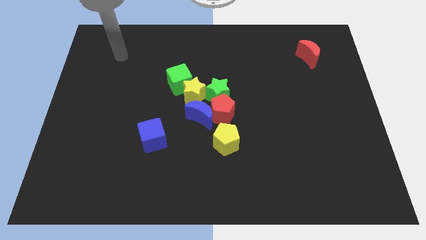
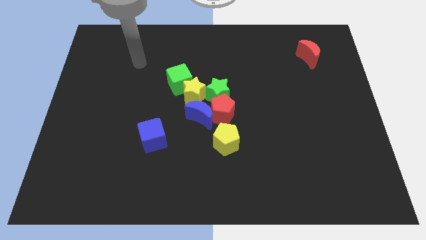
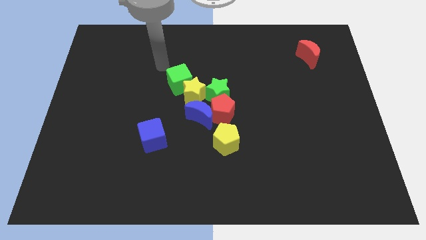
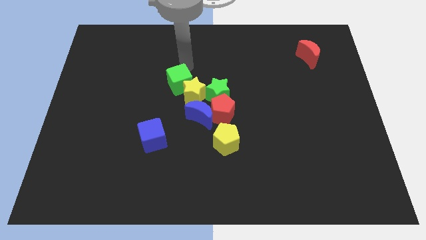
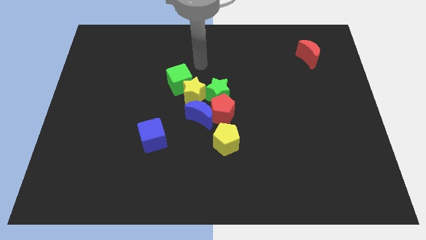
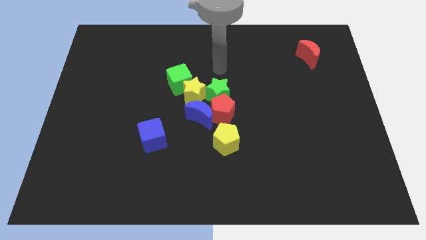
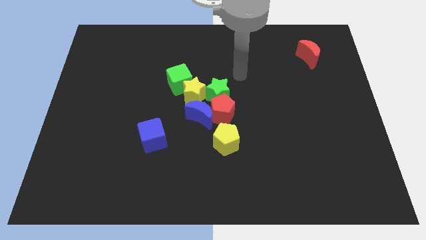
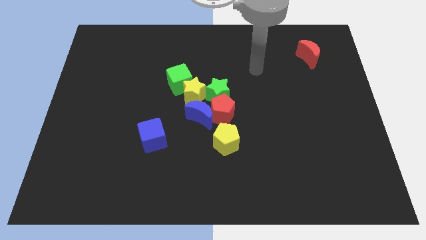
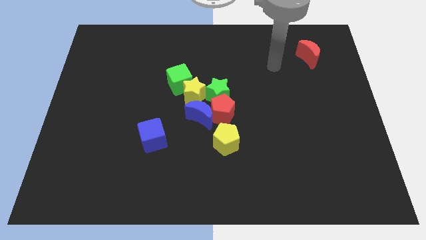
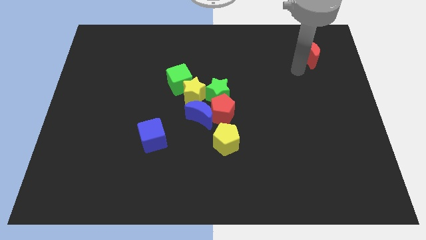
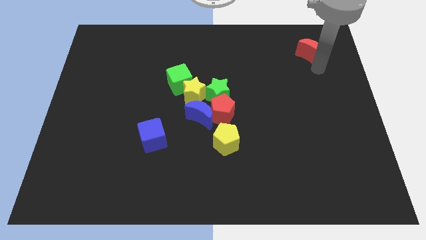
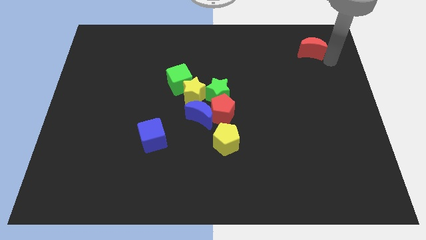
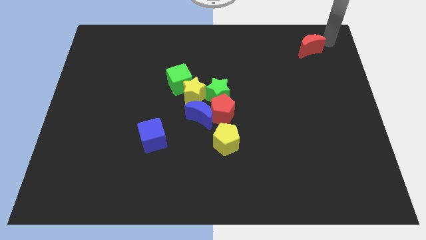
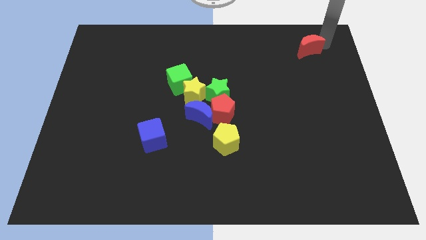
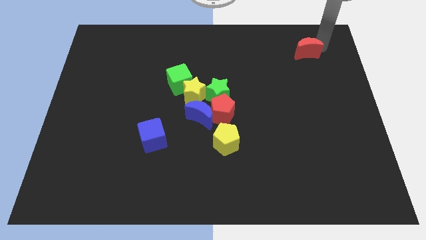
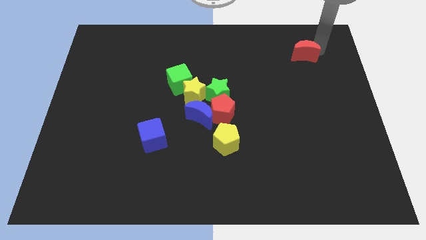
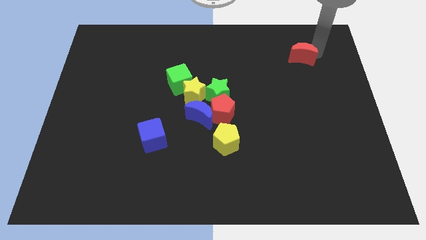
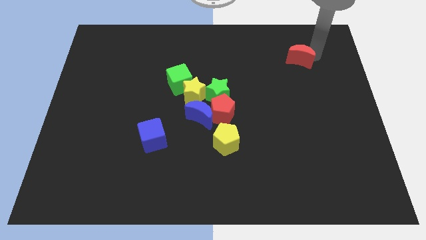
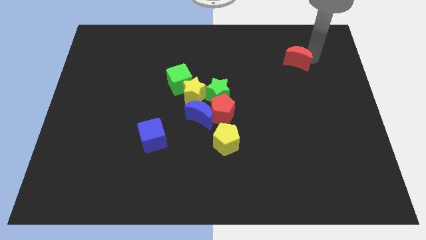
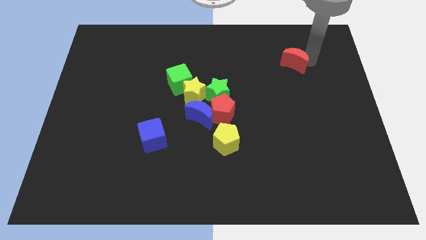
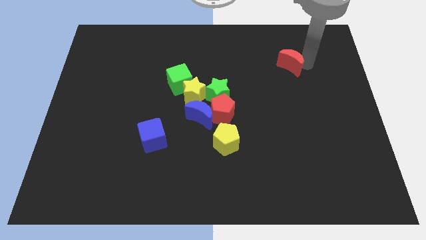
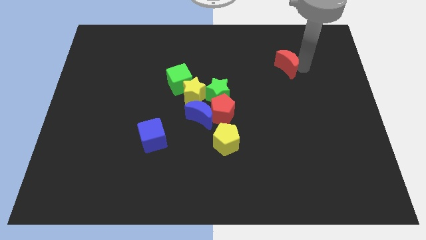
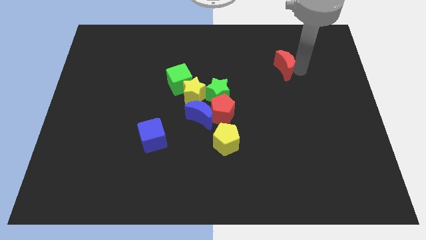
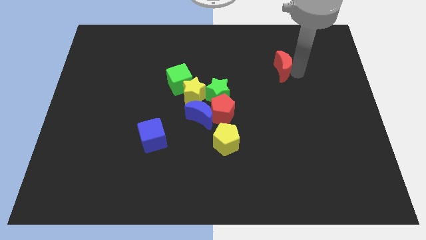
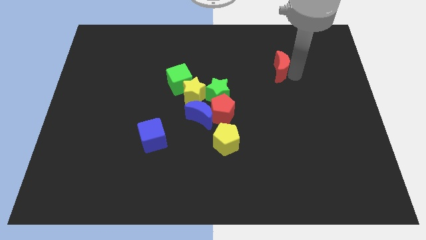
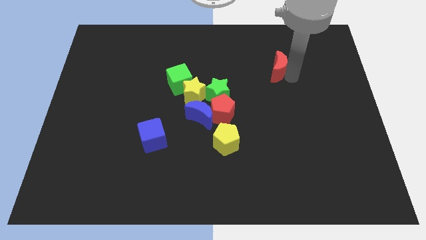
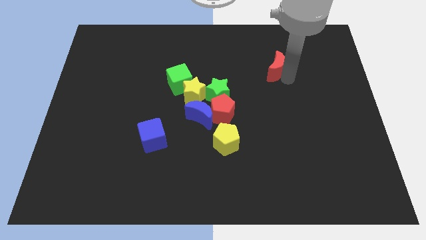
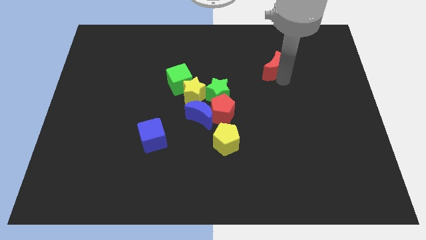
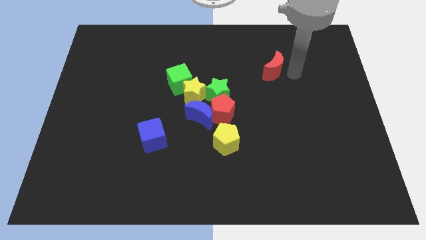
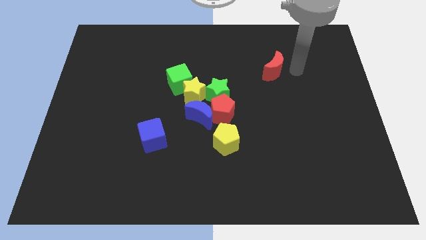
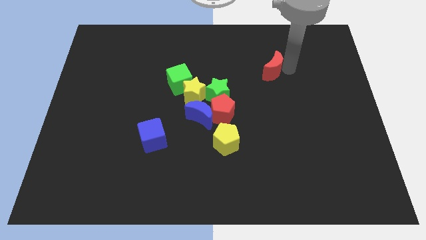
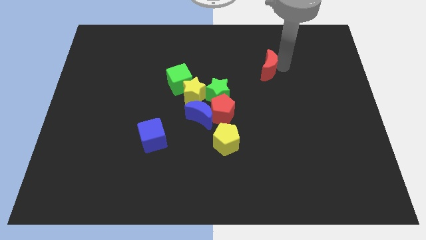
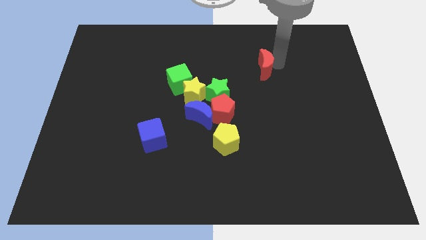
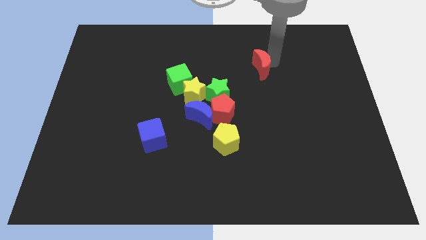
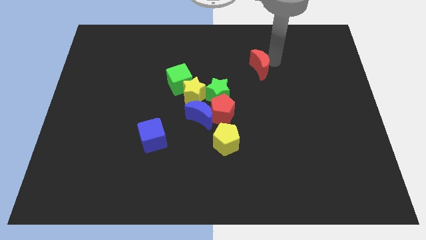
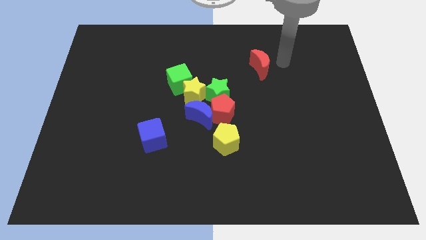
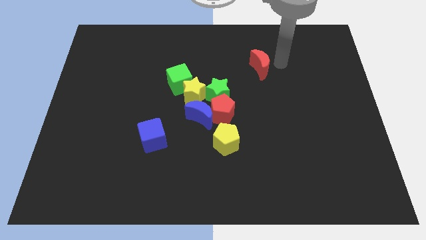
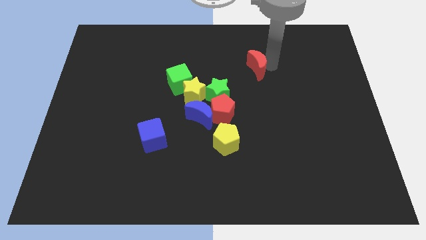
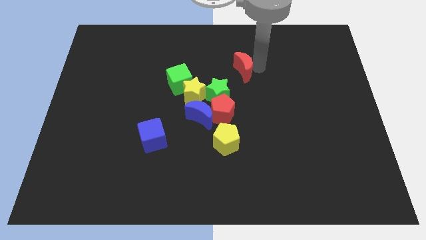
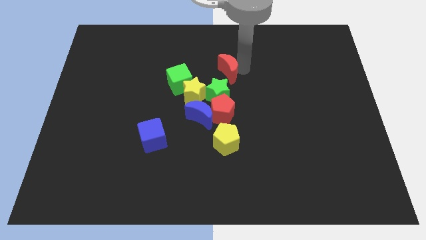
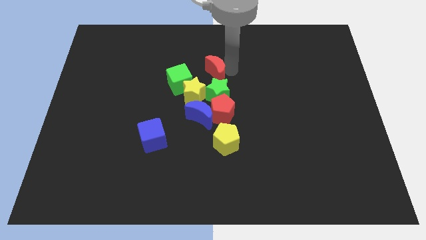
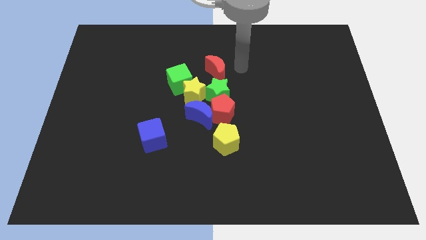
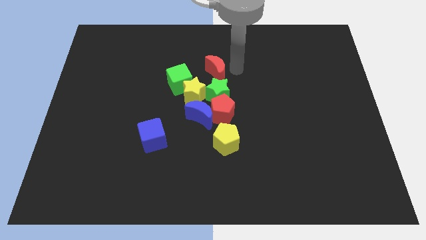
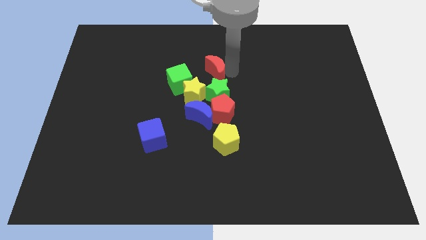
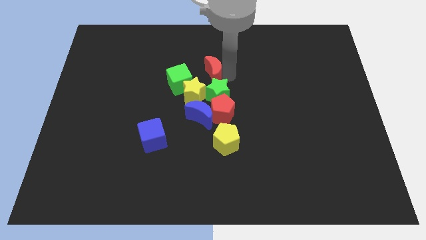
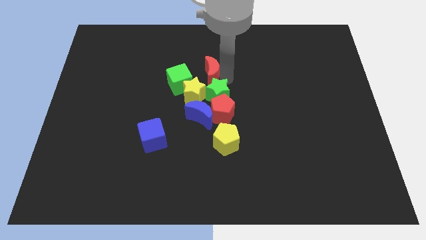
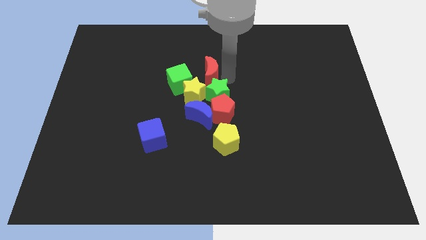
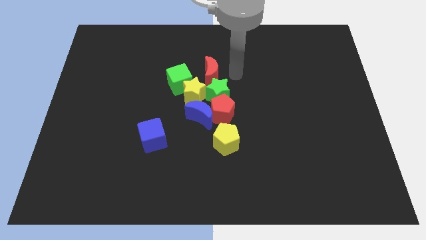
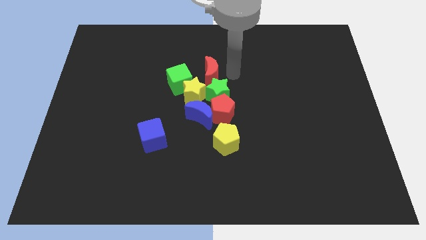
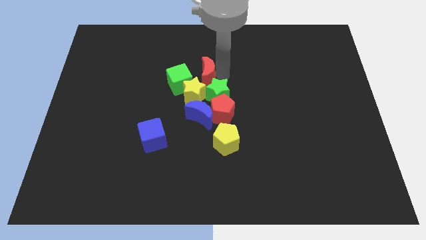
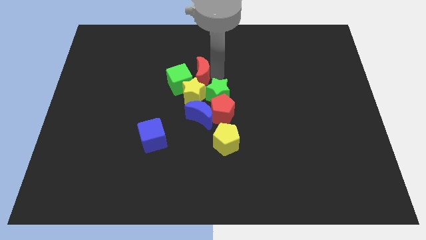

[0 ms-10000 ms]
push the red moon towards the green cube

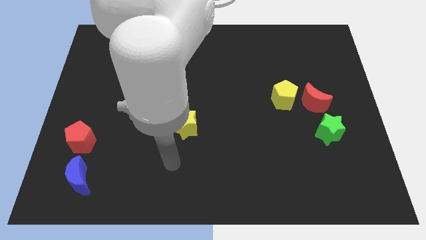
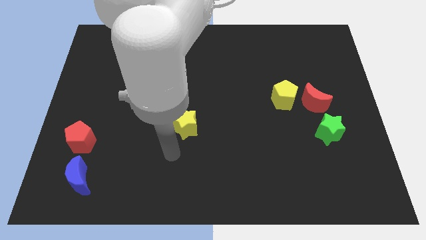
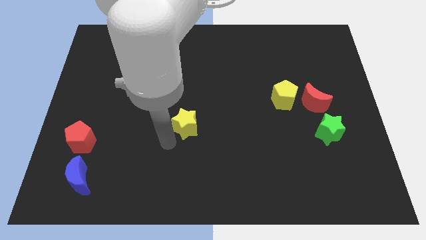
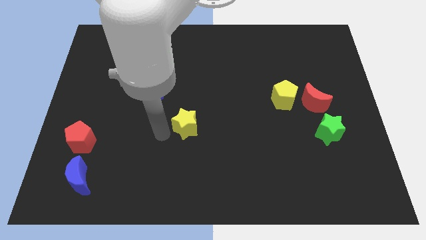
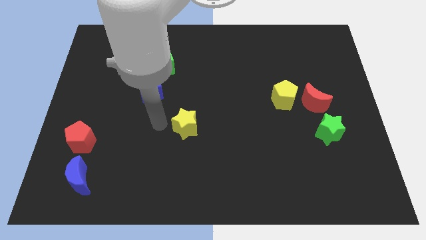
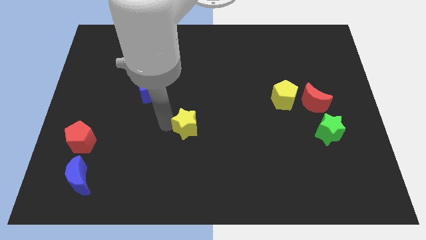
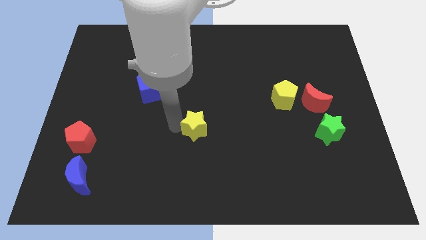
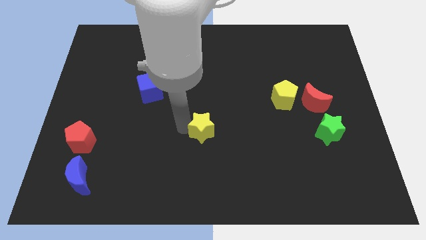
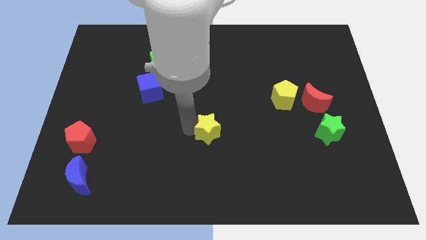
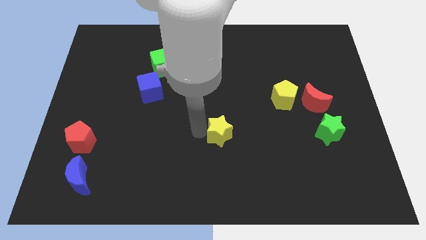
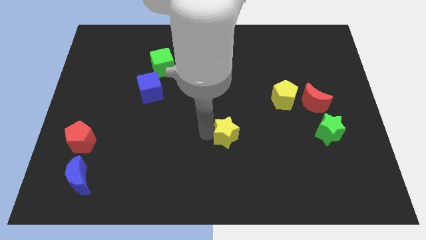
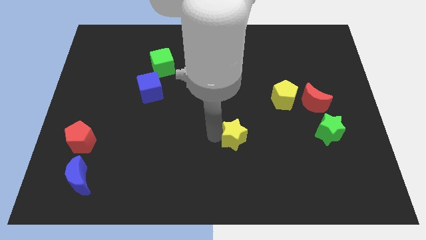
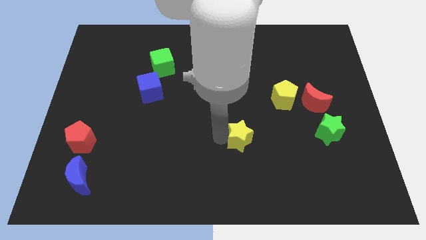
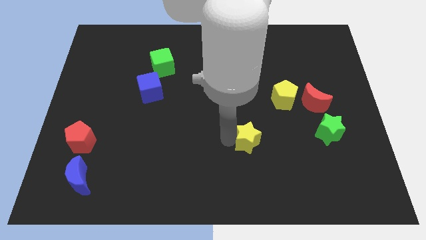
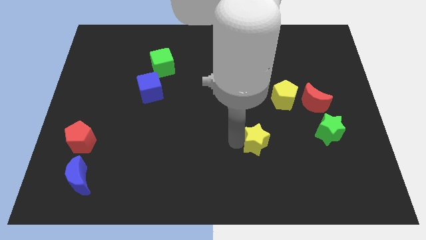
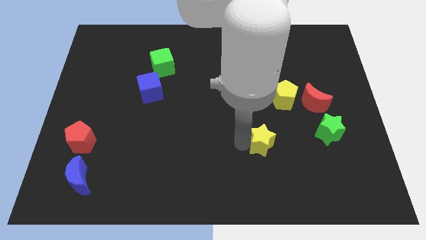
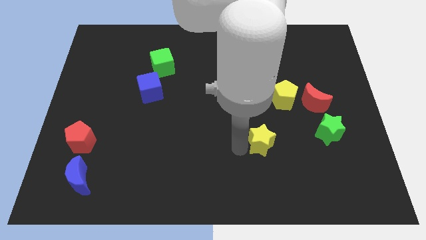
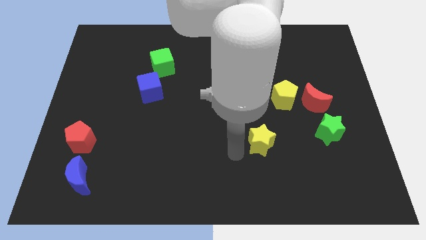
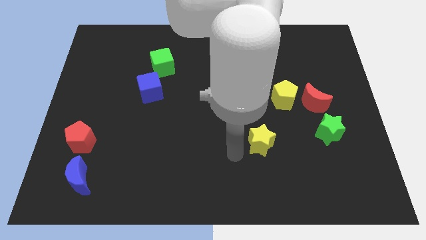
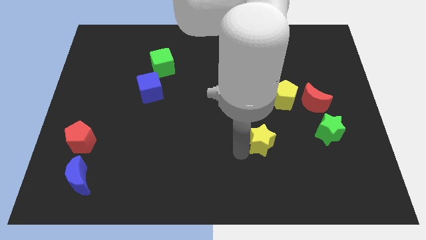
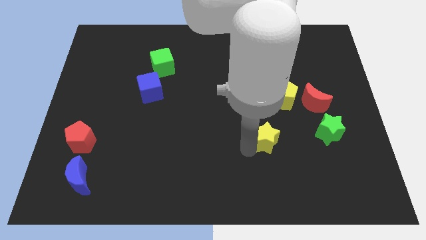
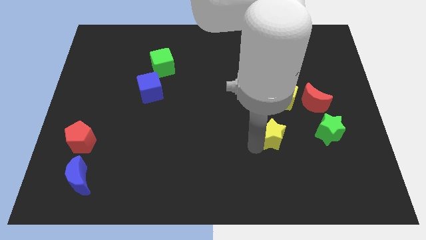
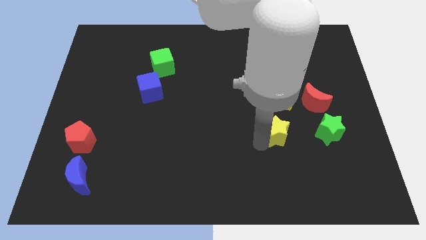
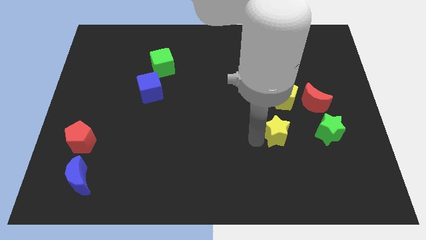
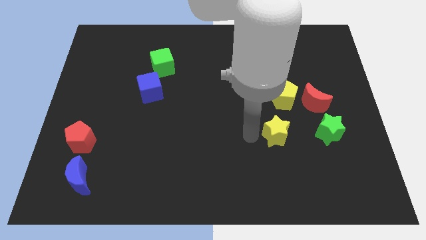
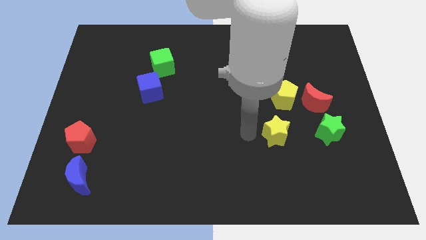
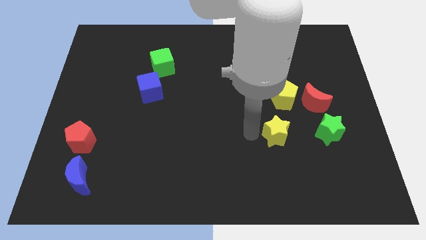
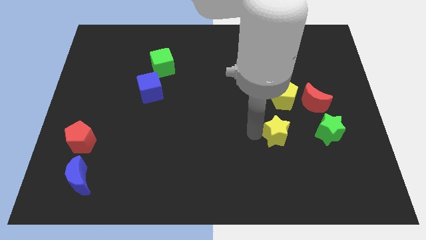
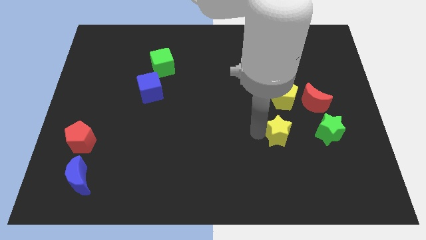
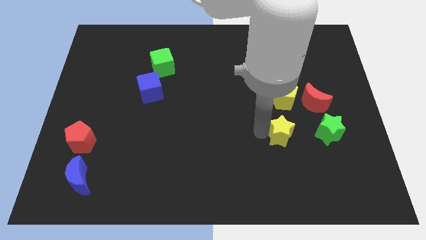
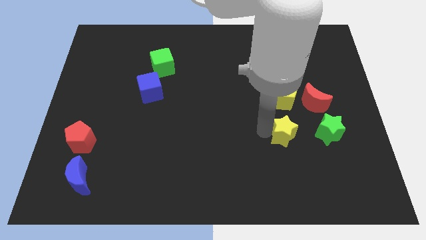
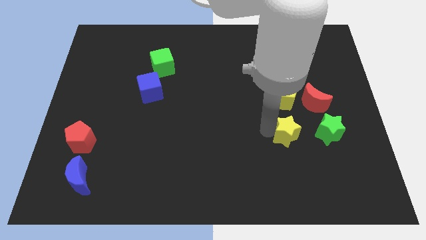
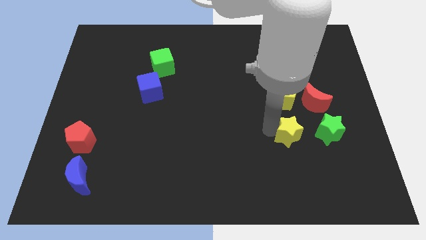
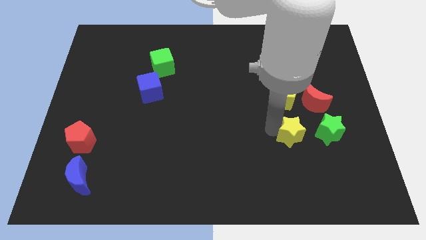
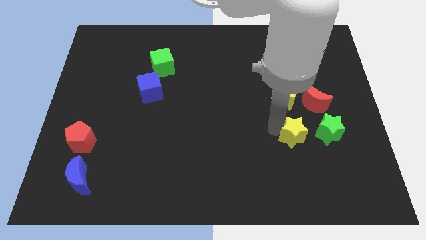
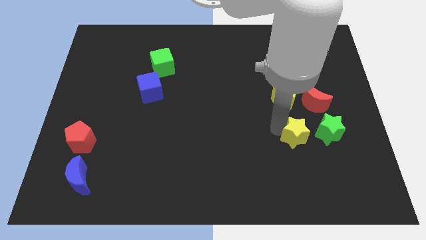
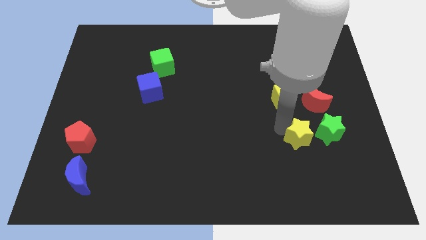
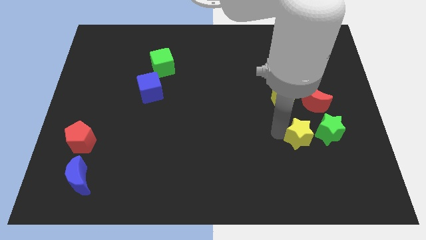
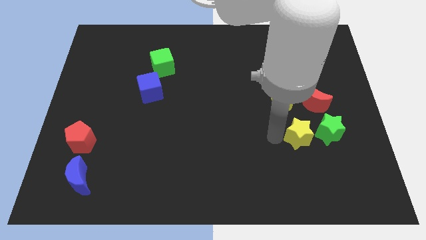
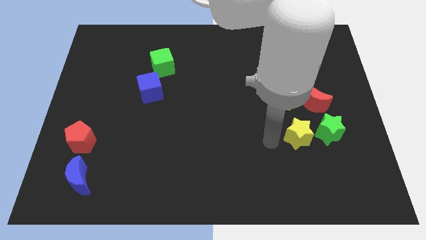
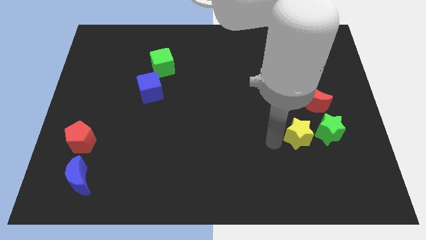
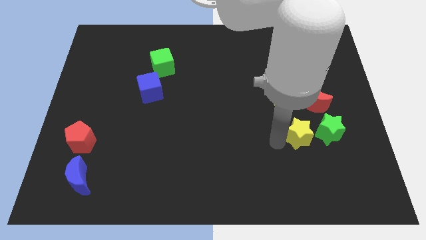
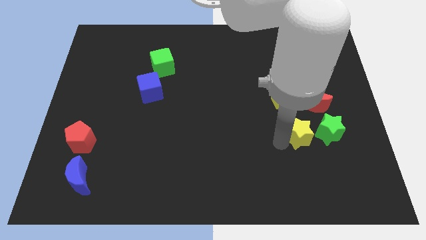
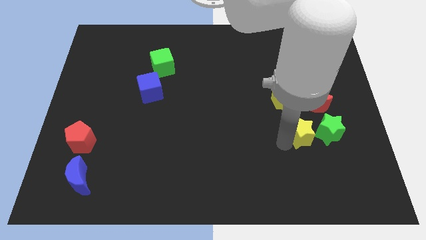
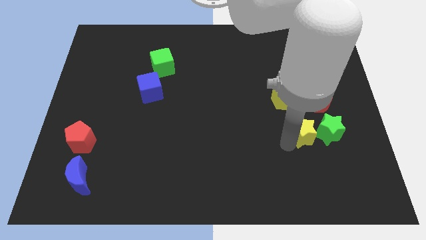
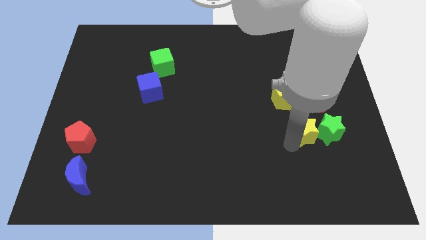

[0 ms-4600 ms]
move the yellow star next to the green star
